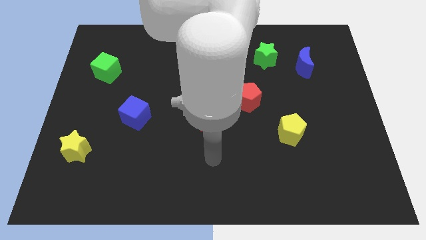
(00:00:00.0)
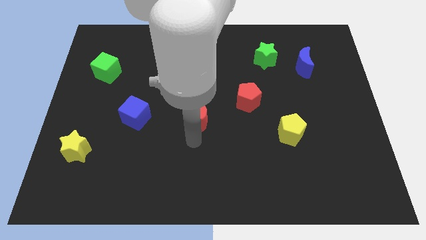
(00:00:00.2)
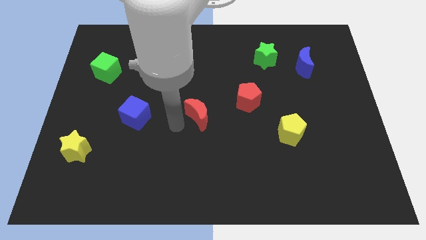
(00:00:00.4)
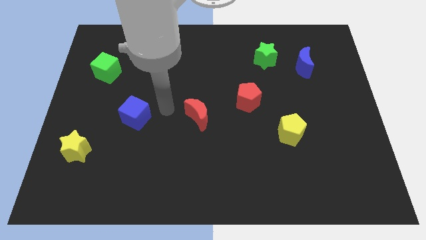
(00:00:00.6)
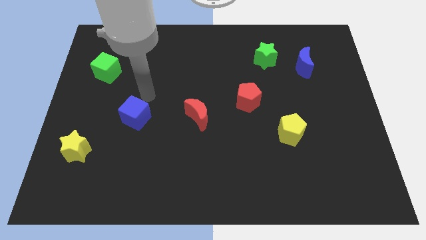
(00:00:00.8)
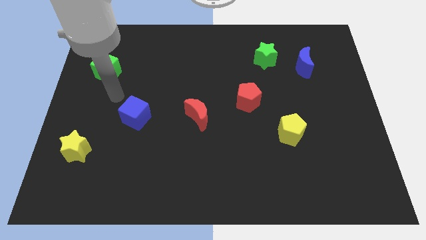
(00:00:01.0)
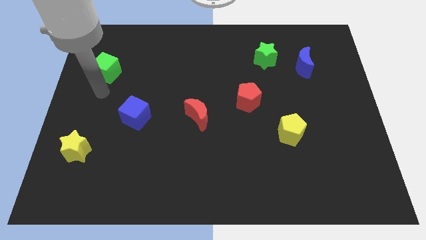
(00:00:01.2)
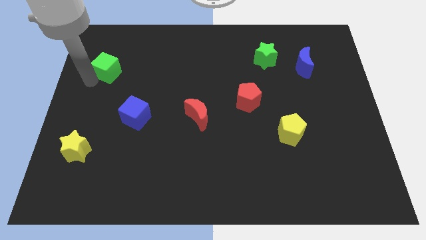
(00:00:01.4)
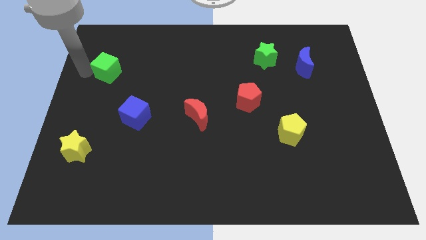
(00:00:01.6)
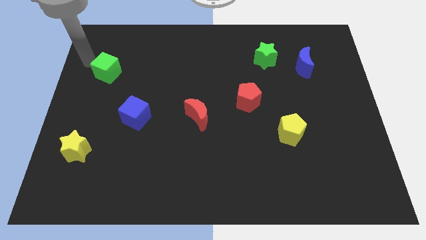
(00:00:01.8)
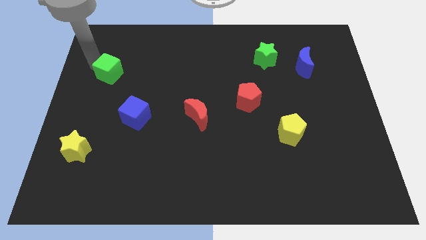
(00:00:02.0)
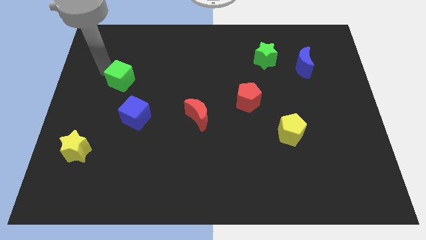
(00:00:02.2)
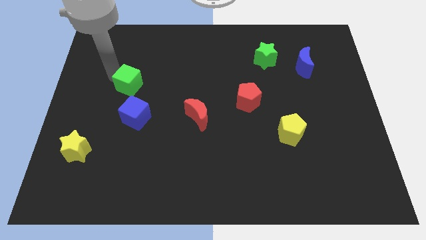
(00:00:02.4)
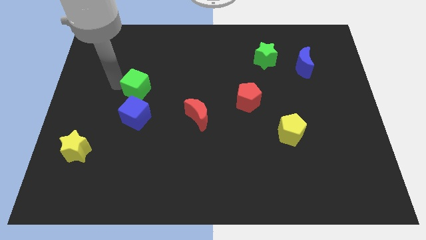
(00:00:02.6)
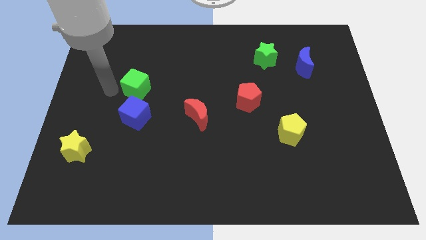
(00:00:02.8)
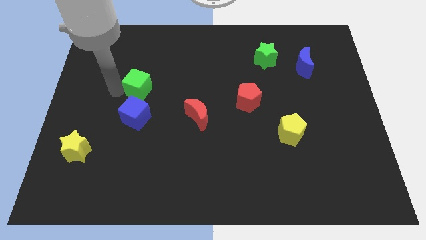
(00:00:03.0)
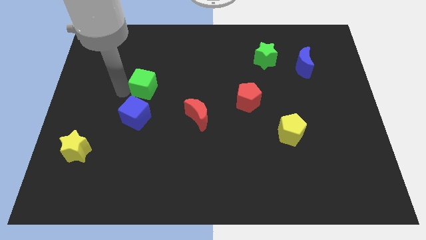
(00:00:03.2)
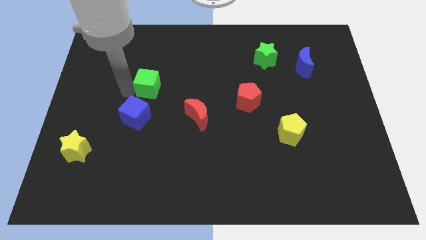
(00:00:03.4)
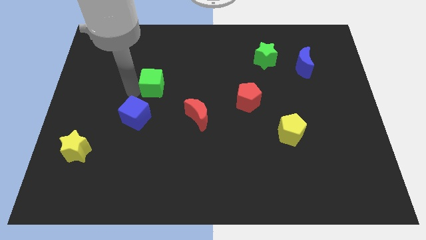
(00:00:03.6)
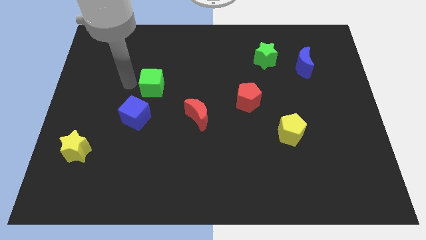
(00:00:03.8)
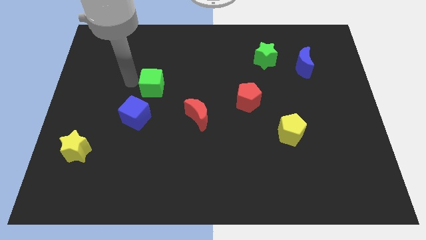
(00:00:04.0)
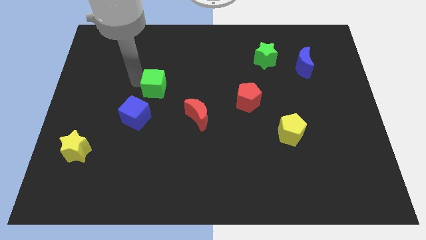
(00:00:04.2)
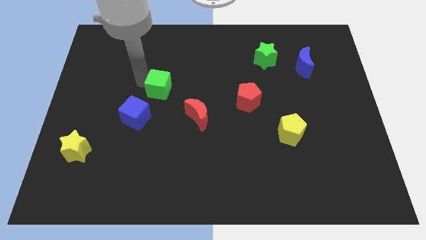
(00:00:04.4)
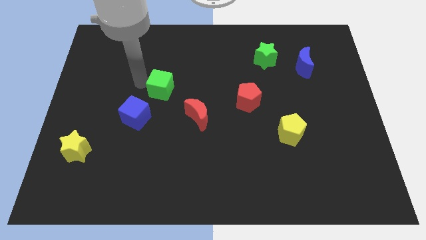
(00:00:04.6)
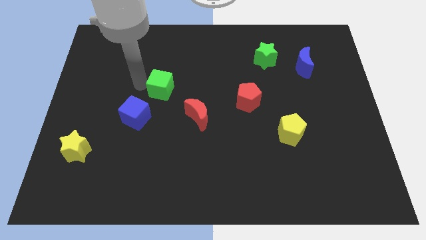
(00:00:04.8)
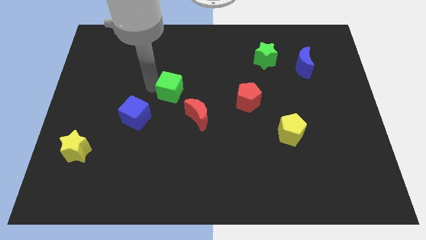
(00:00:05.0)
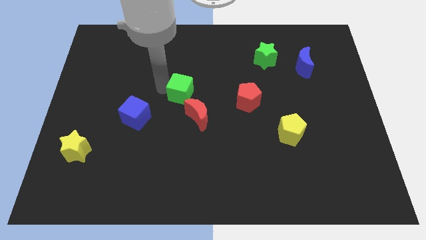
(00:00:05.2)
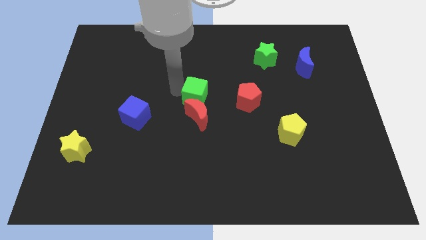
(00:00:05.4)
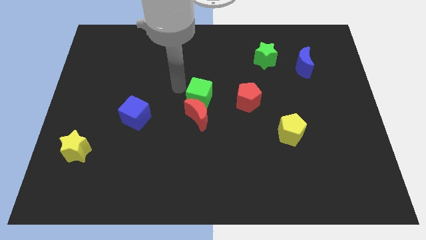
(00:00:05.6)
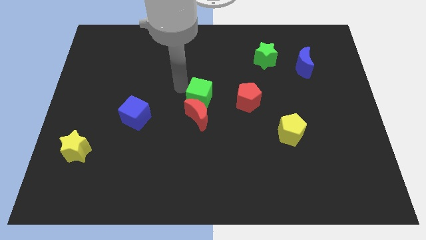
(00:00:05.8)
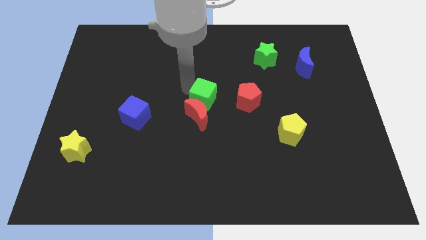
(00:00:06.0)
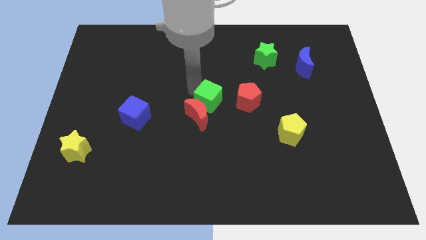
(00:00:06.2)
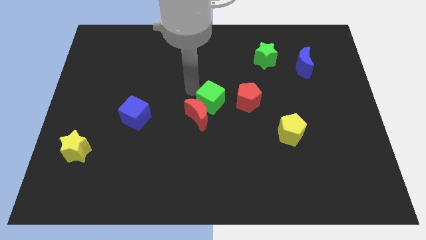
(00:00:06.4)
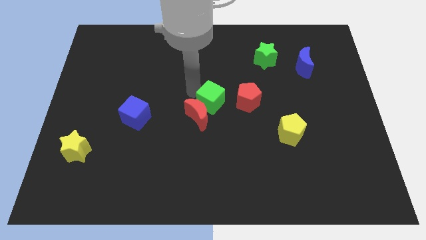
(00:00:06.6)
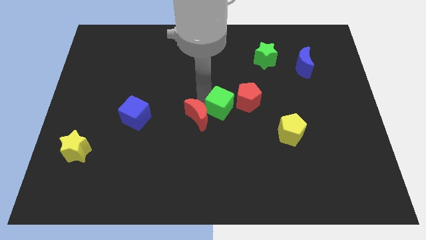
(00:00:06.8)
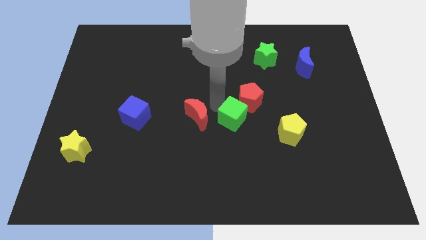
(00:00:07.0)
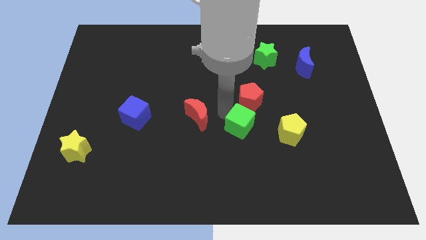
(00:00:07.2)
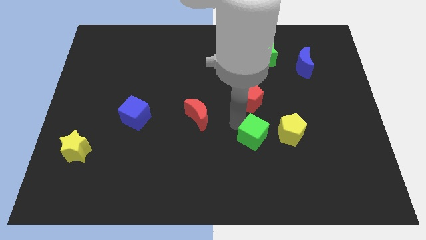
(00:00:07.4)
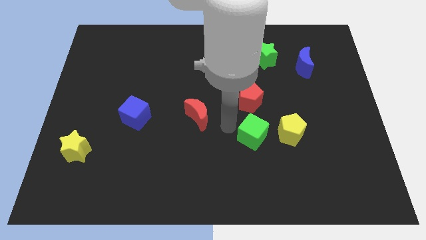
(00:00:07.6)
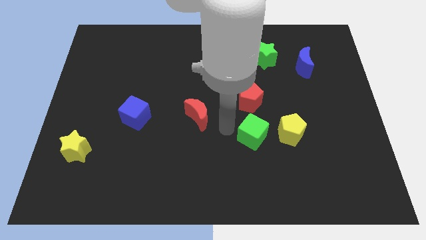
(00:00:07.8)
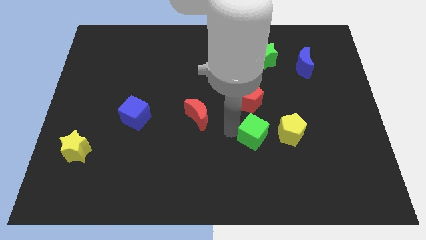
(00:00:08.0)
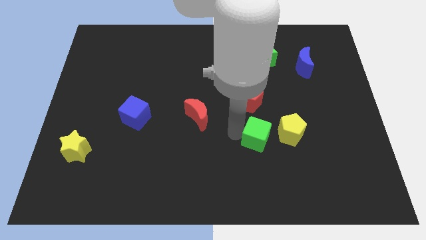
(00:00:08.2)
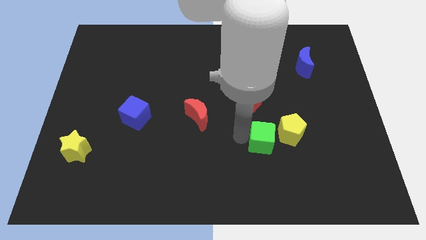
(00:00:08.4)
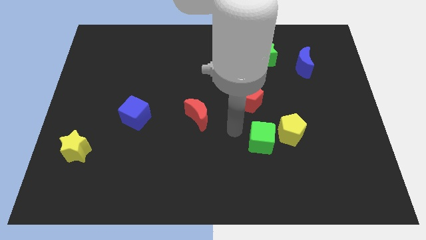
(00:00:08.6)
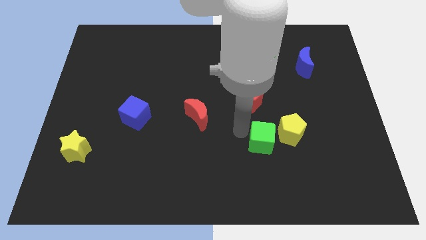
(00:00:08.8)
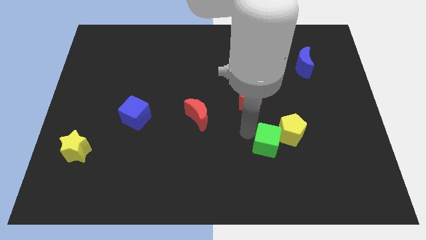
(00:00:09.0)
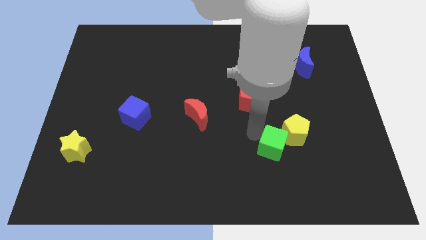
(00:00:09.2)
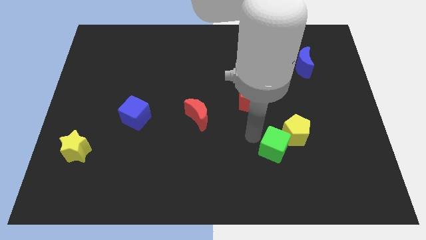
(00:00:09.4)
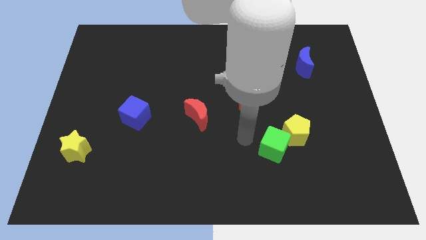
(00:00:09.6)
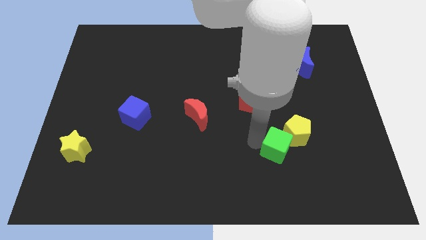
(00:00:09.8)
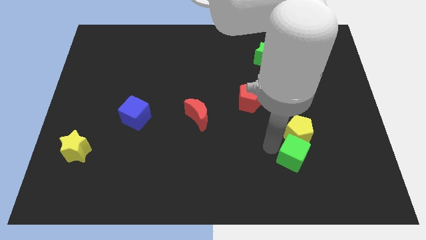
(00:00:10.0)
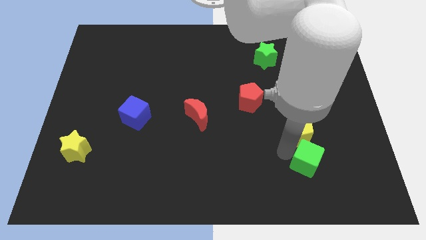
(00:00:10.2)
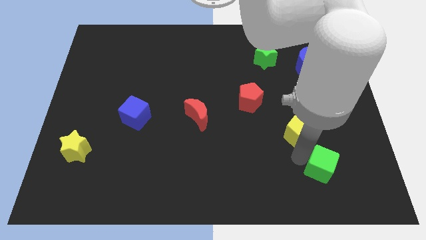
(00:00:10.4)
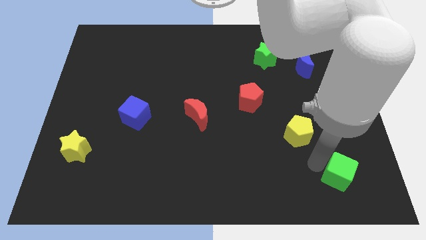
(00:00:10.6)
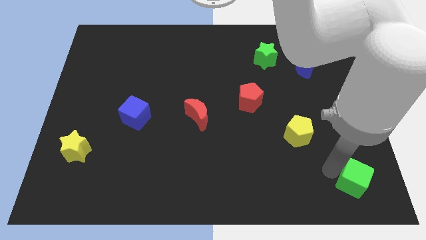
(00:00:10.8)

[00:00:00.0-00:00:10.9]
move the green cube to the bottom right of the board

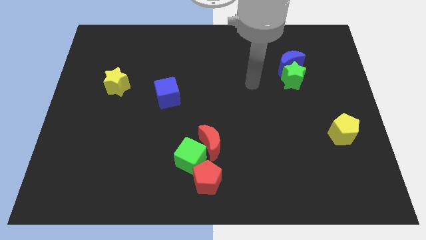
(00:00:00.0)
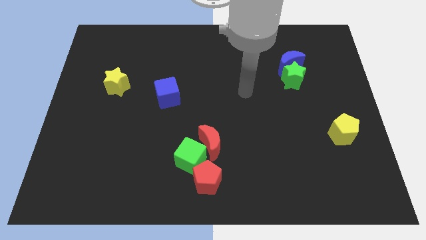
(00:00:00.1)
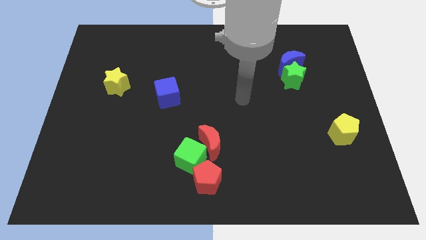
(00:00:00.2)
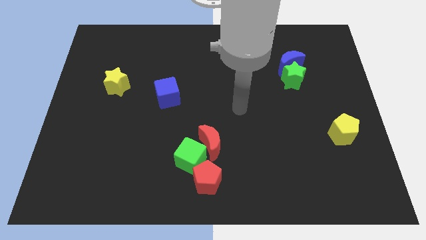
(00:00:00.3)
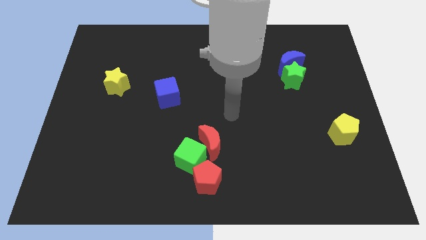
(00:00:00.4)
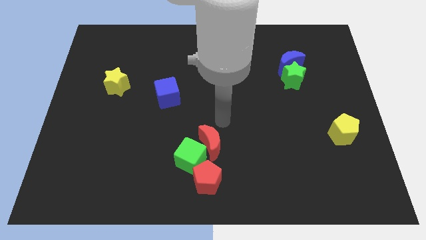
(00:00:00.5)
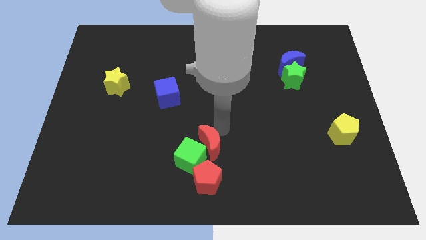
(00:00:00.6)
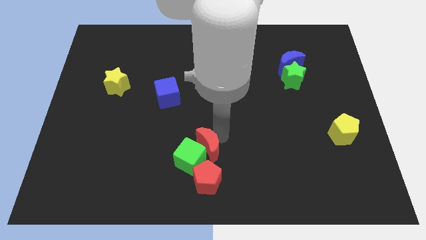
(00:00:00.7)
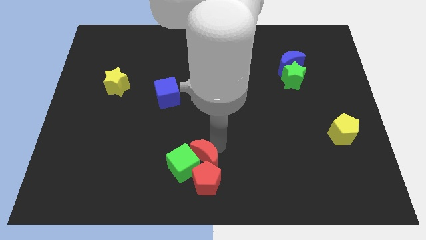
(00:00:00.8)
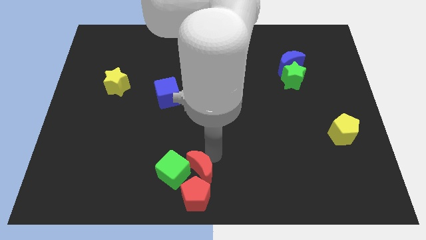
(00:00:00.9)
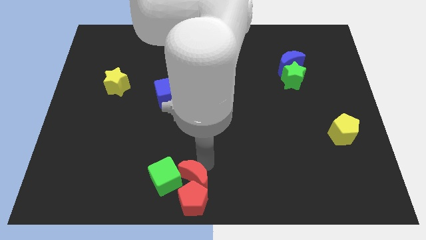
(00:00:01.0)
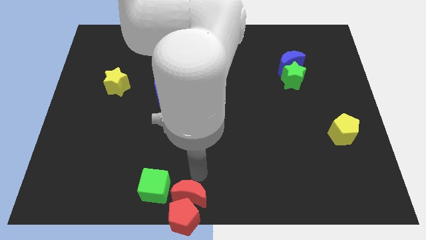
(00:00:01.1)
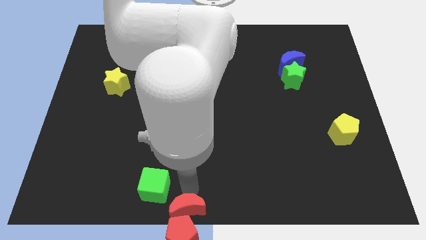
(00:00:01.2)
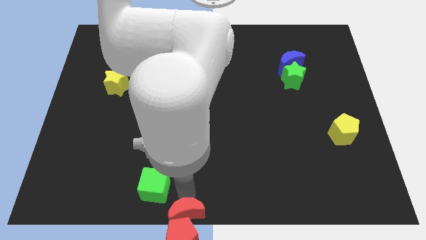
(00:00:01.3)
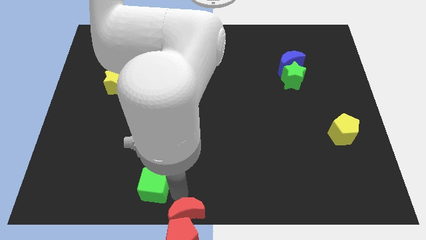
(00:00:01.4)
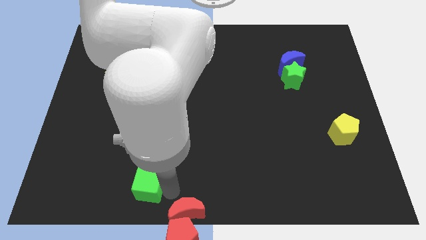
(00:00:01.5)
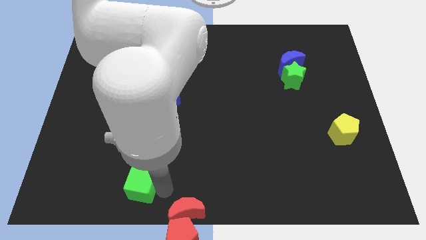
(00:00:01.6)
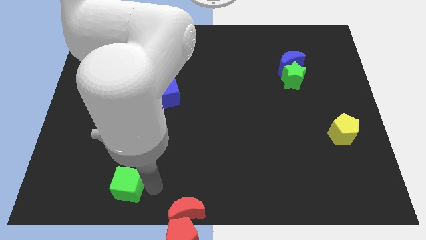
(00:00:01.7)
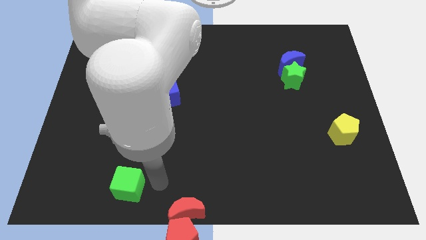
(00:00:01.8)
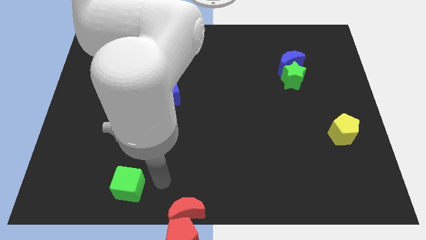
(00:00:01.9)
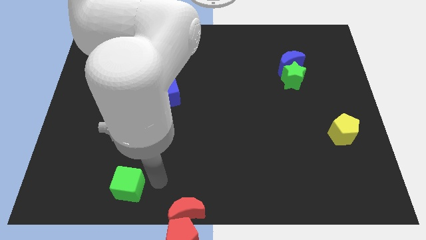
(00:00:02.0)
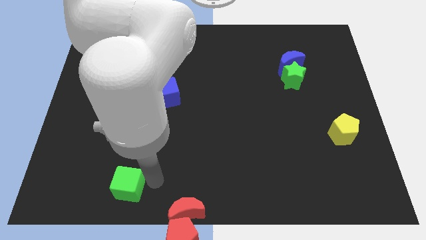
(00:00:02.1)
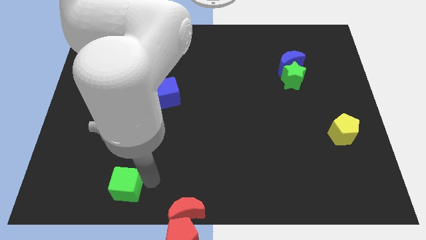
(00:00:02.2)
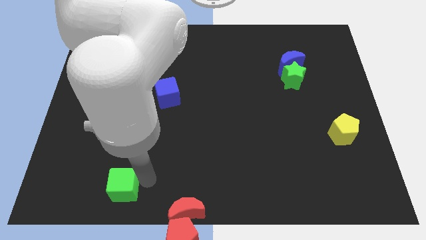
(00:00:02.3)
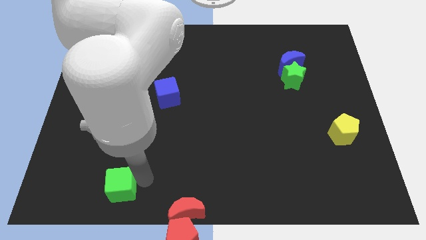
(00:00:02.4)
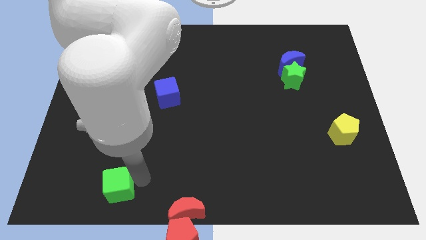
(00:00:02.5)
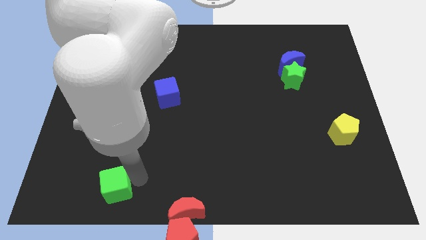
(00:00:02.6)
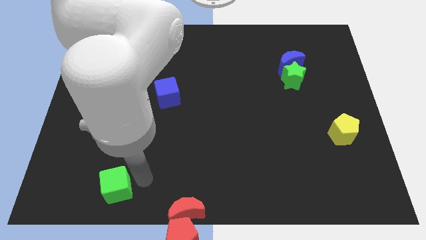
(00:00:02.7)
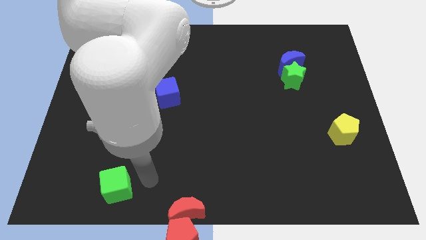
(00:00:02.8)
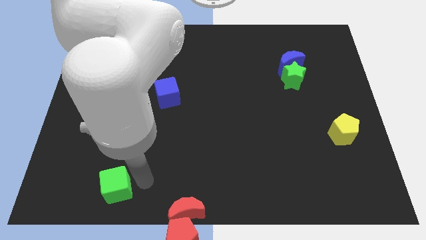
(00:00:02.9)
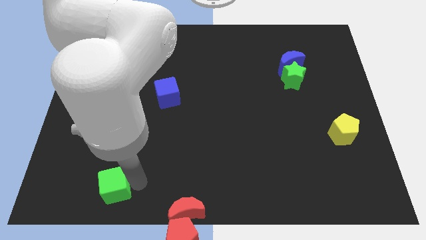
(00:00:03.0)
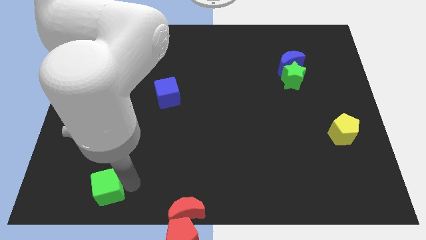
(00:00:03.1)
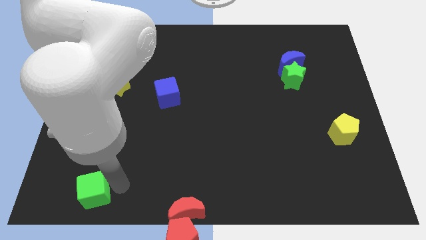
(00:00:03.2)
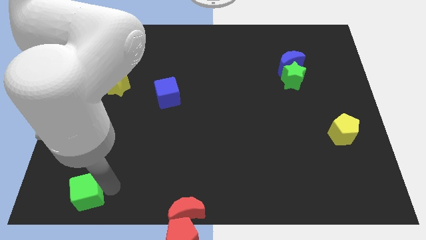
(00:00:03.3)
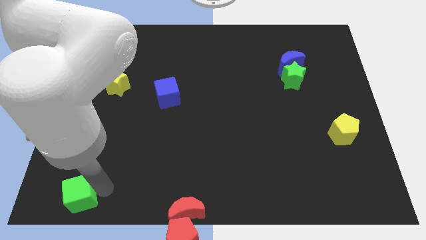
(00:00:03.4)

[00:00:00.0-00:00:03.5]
put the green cube to the bottom left of the board
